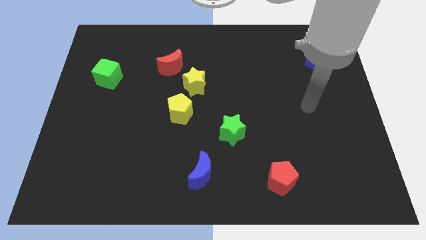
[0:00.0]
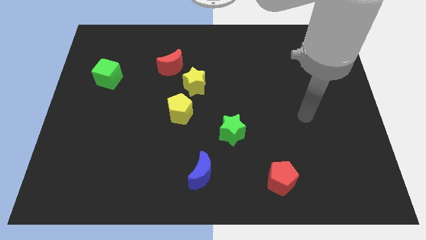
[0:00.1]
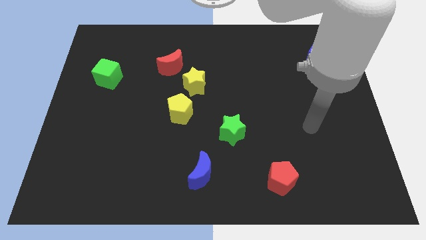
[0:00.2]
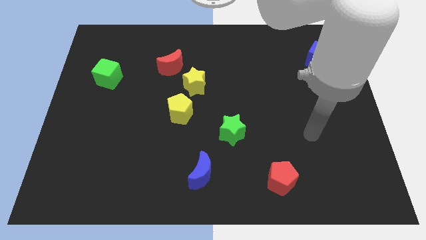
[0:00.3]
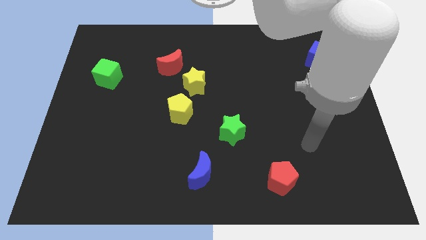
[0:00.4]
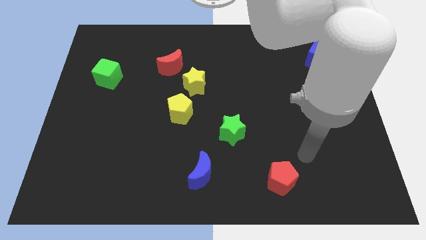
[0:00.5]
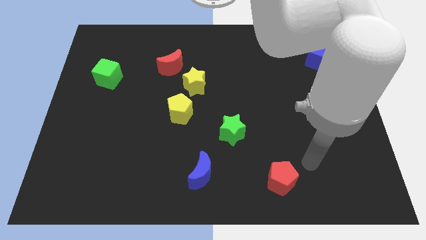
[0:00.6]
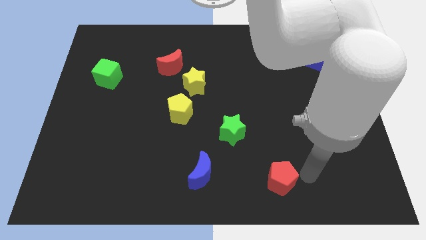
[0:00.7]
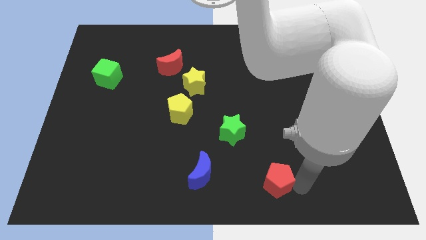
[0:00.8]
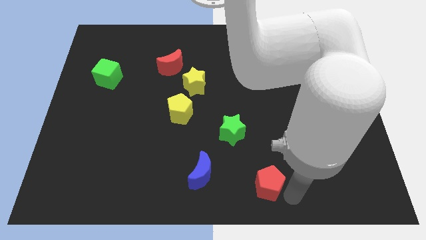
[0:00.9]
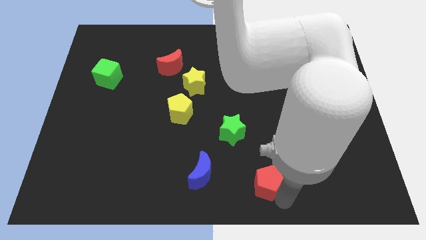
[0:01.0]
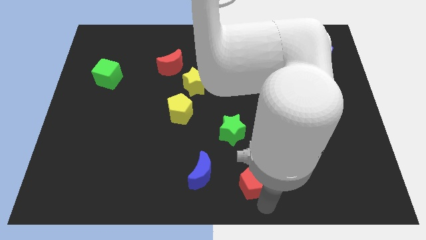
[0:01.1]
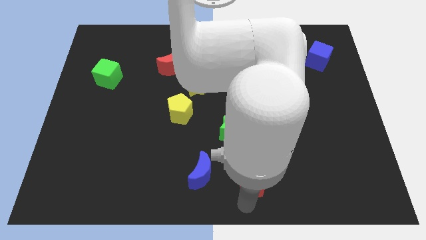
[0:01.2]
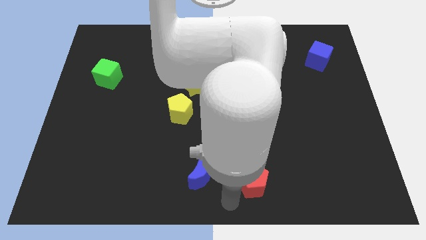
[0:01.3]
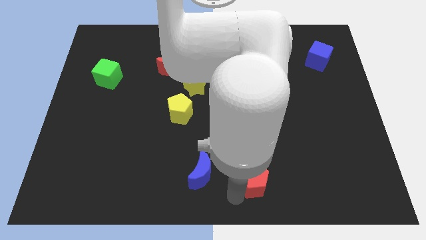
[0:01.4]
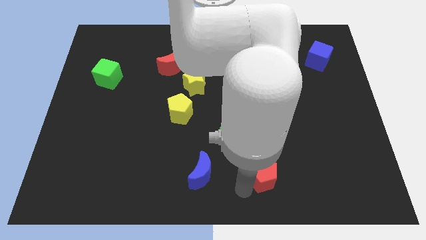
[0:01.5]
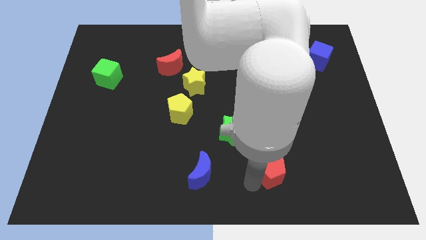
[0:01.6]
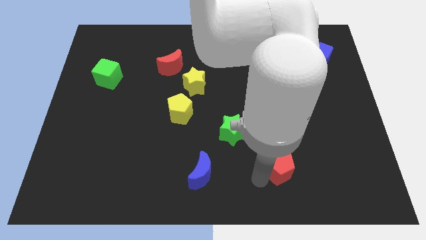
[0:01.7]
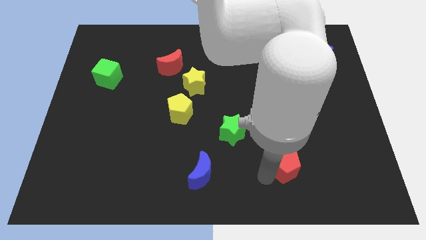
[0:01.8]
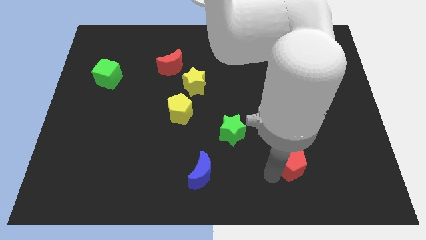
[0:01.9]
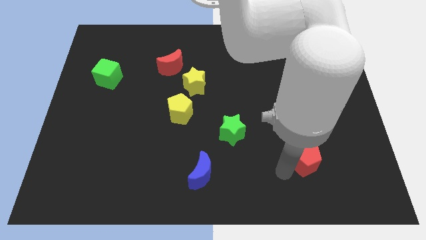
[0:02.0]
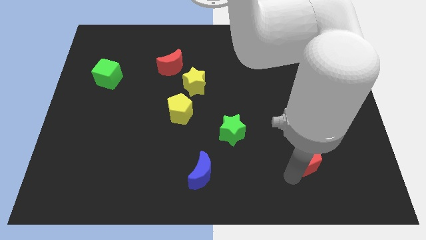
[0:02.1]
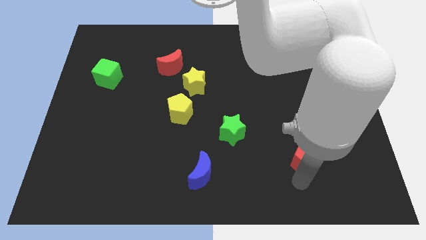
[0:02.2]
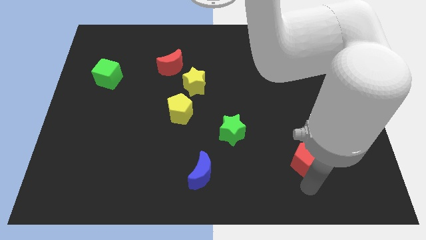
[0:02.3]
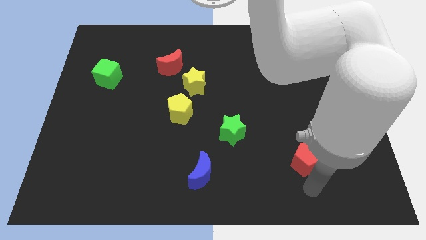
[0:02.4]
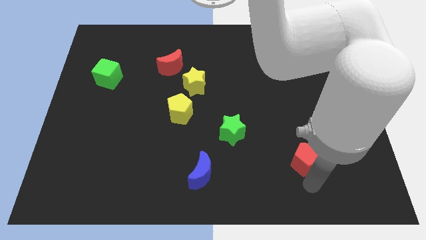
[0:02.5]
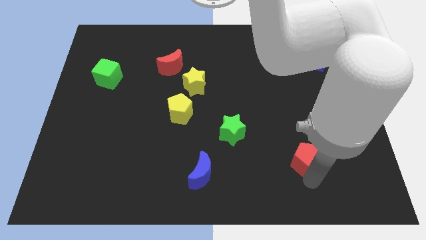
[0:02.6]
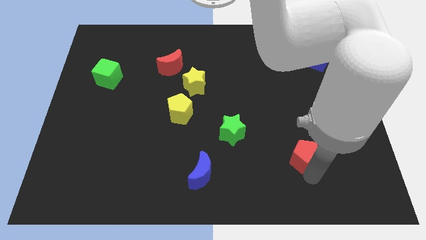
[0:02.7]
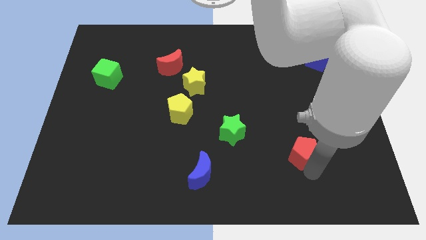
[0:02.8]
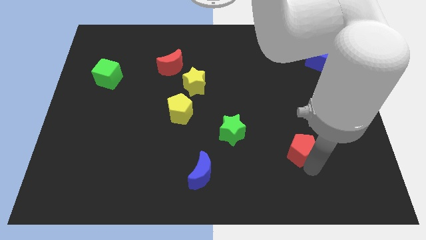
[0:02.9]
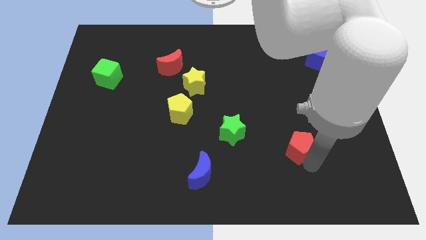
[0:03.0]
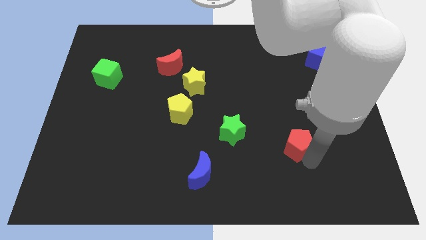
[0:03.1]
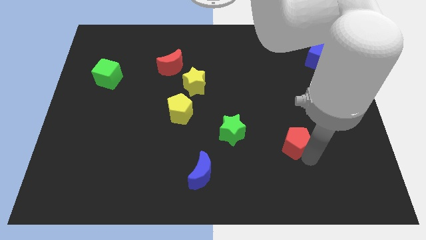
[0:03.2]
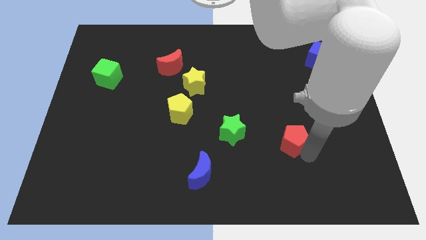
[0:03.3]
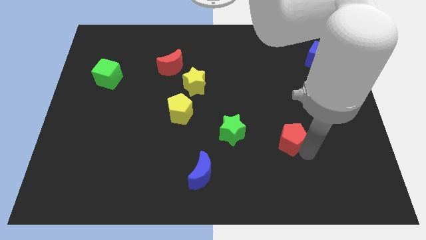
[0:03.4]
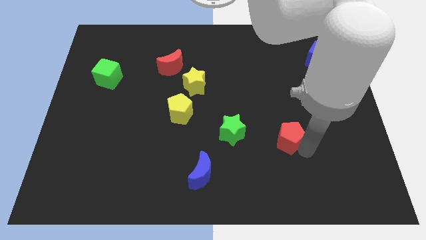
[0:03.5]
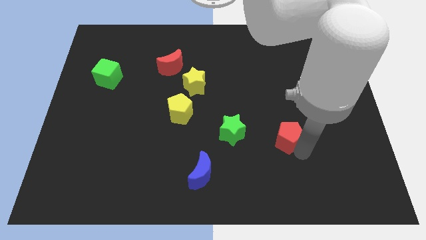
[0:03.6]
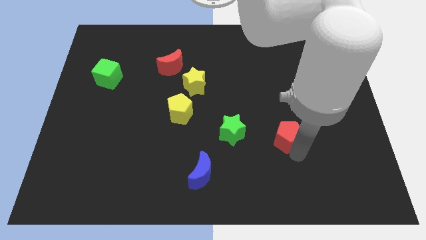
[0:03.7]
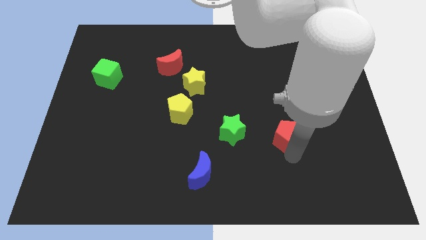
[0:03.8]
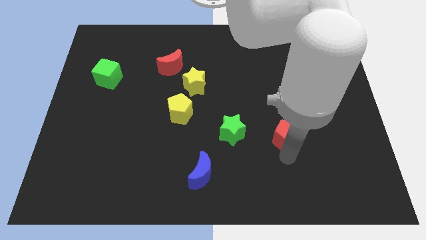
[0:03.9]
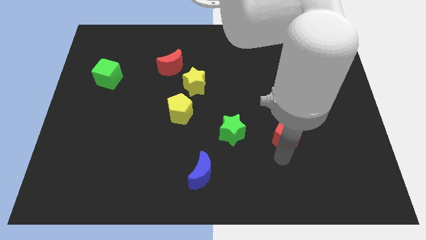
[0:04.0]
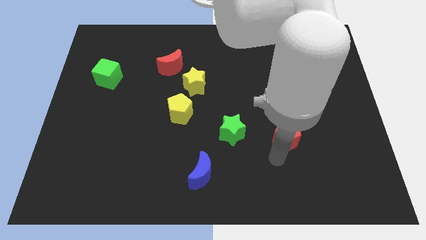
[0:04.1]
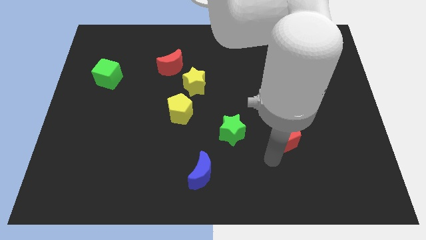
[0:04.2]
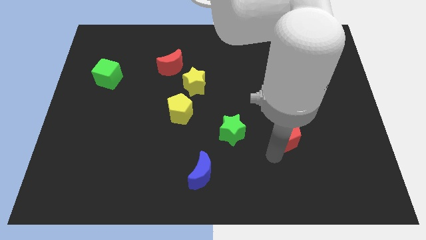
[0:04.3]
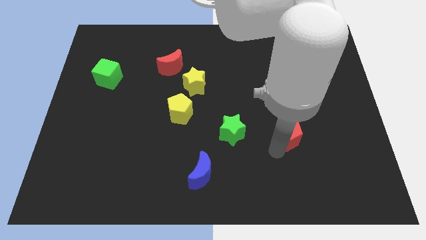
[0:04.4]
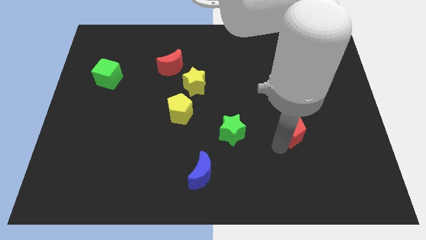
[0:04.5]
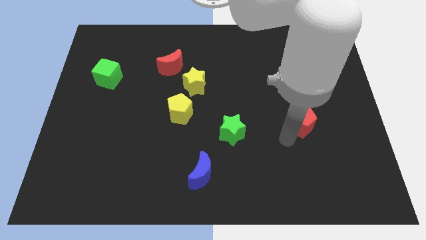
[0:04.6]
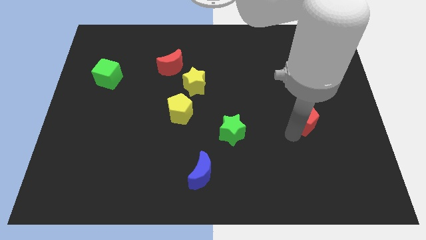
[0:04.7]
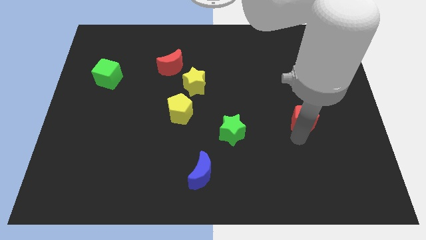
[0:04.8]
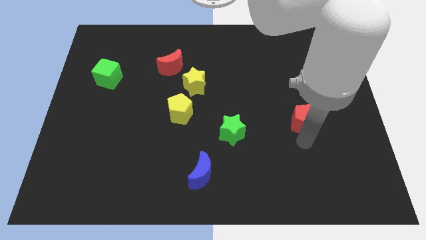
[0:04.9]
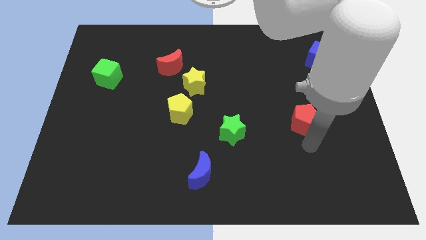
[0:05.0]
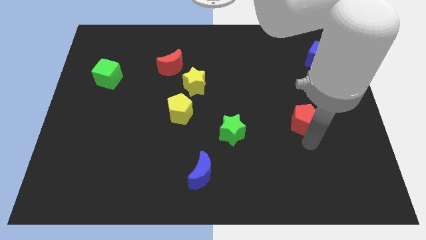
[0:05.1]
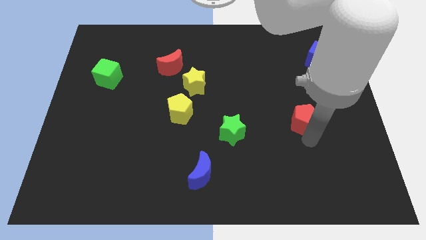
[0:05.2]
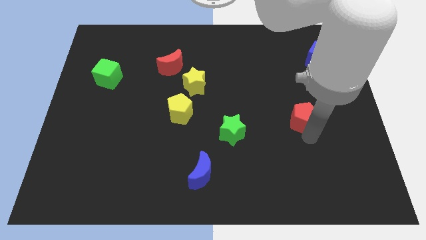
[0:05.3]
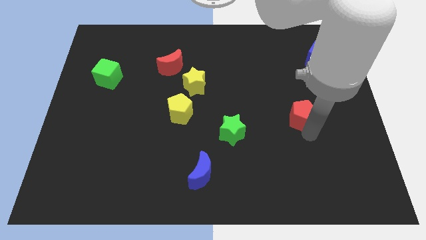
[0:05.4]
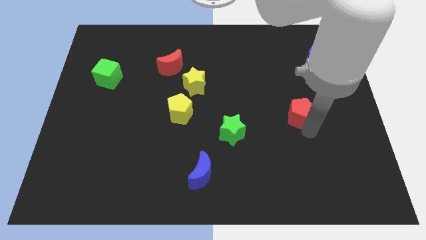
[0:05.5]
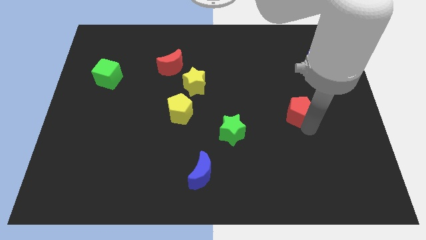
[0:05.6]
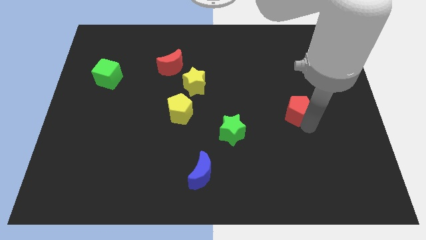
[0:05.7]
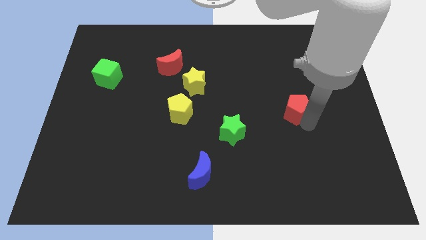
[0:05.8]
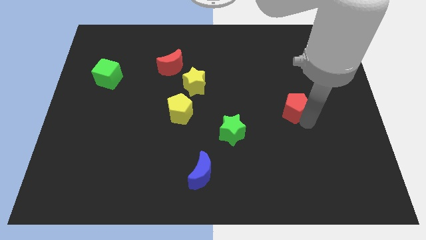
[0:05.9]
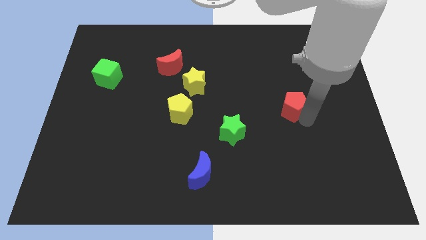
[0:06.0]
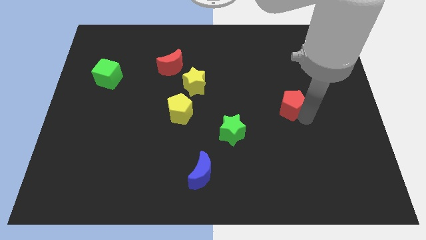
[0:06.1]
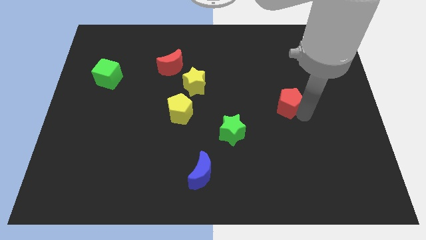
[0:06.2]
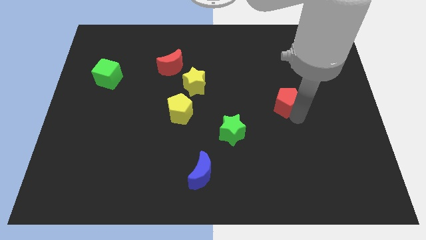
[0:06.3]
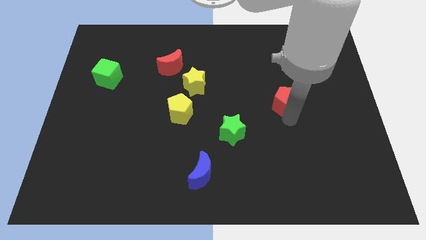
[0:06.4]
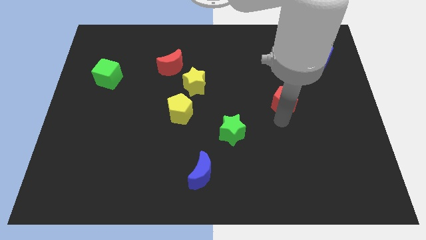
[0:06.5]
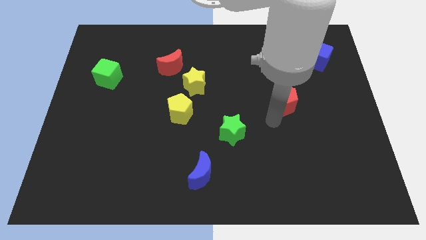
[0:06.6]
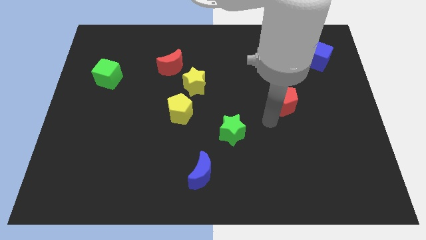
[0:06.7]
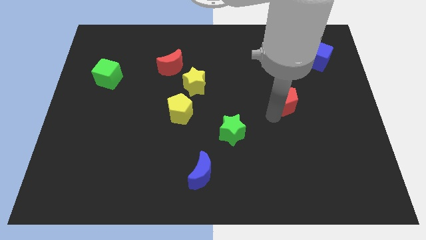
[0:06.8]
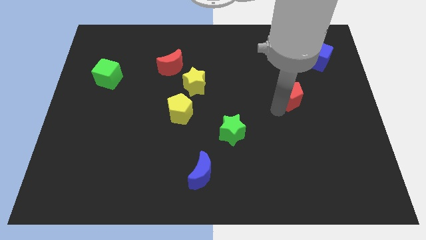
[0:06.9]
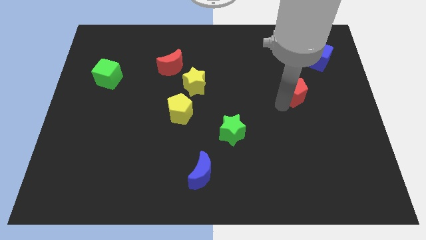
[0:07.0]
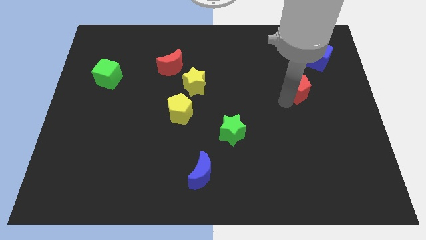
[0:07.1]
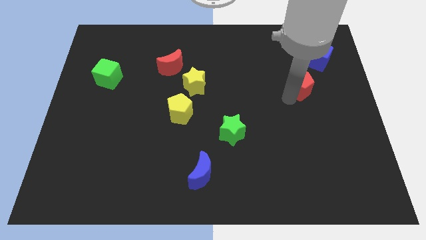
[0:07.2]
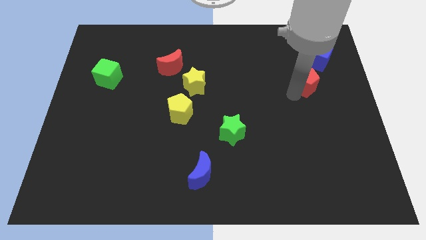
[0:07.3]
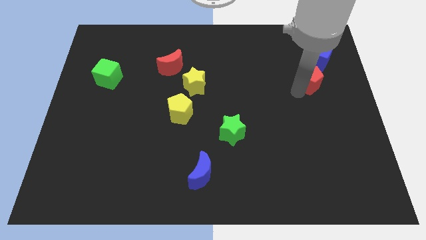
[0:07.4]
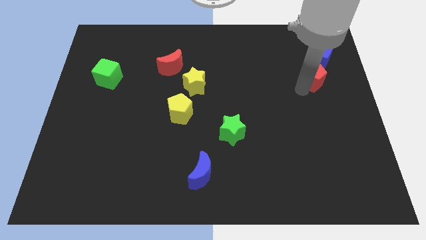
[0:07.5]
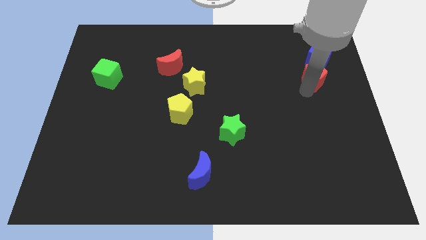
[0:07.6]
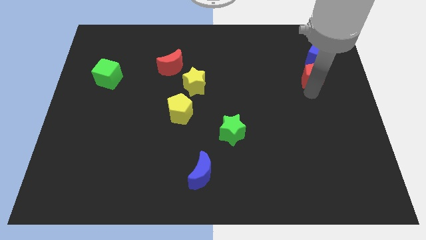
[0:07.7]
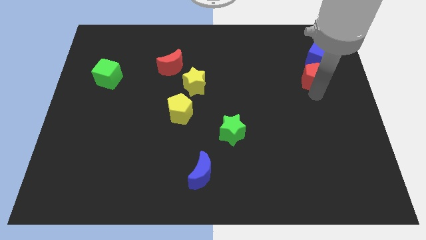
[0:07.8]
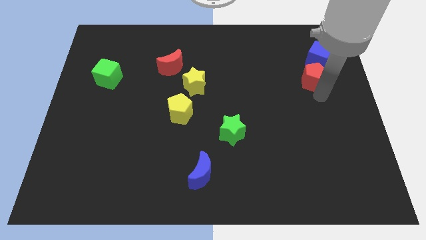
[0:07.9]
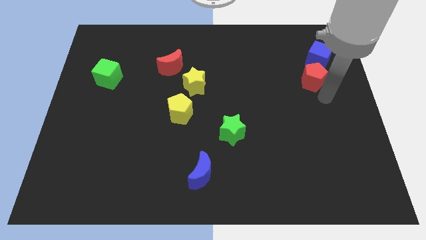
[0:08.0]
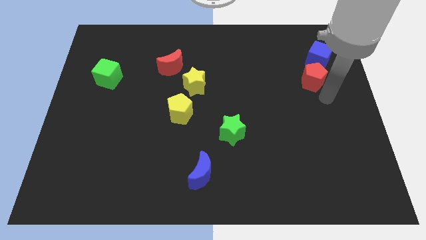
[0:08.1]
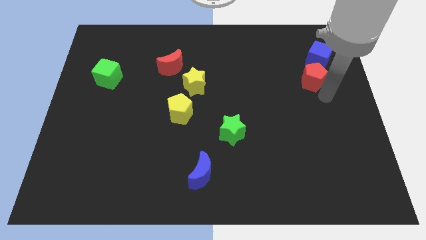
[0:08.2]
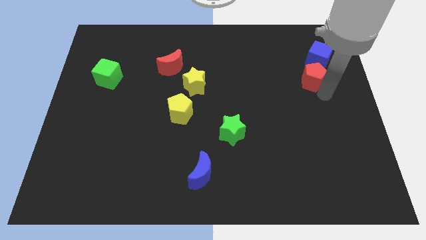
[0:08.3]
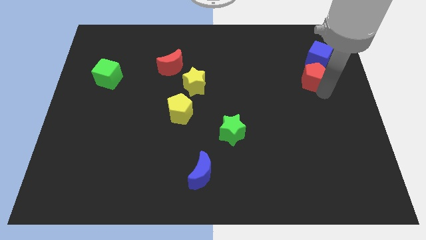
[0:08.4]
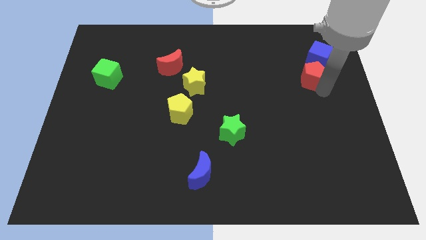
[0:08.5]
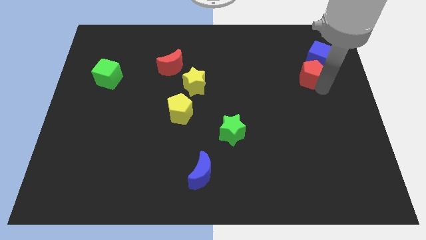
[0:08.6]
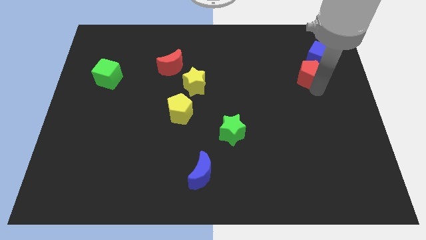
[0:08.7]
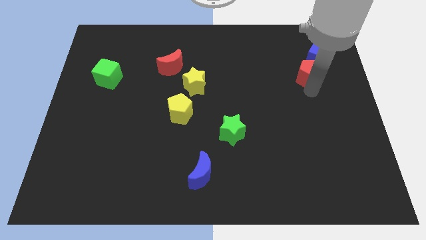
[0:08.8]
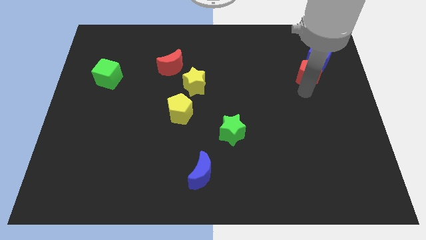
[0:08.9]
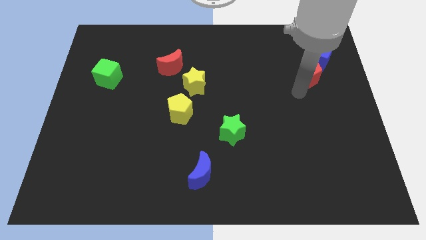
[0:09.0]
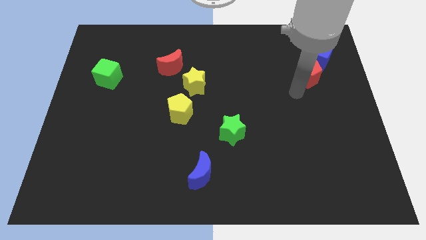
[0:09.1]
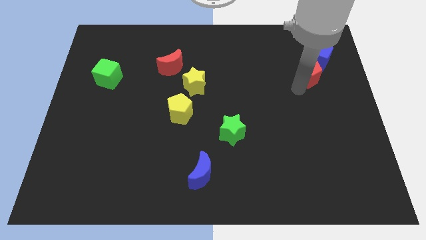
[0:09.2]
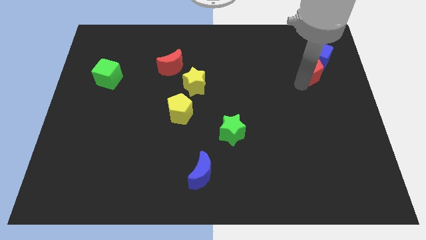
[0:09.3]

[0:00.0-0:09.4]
put the red pentagon next to the blue cube
